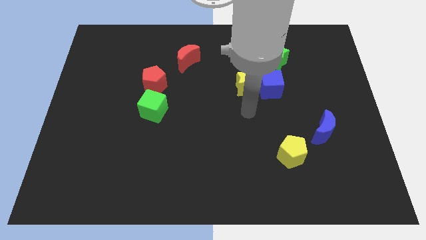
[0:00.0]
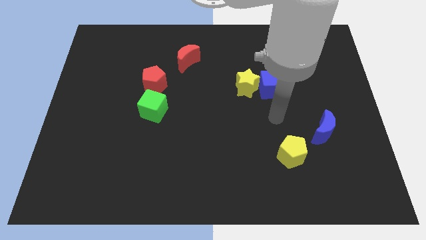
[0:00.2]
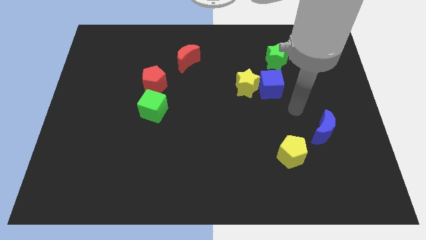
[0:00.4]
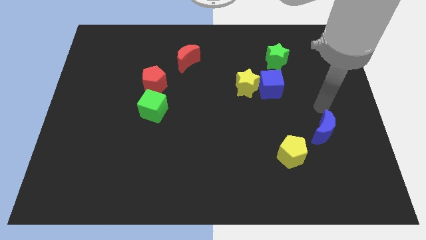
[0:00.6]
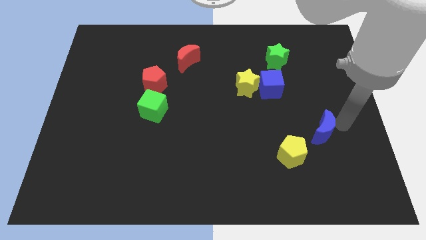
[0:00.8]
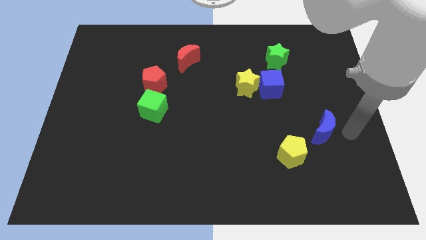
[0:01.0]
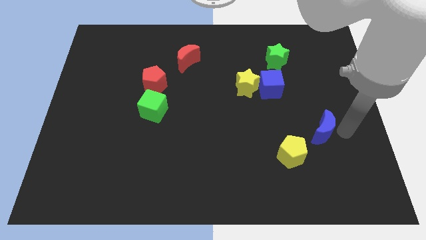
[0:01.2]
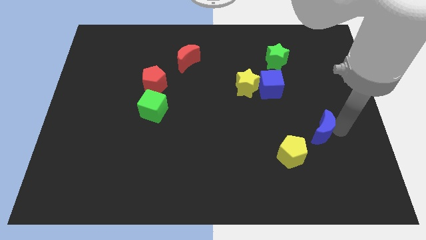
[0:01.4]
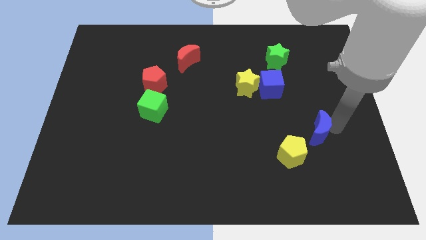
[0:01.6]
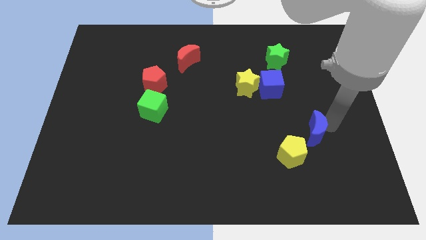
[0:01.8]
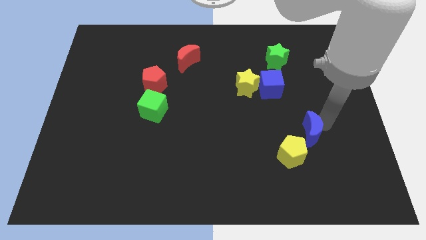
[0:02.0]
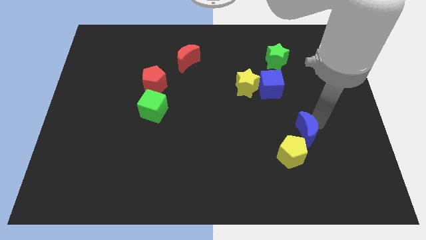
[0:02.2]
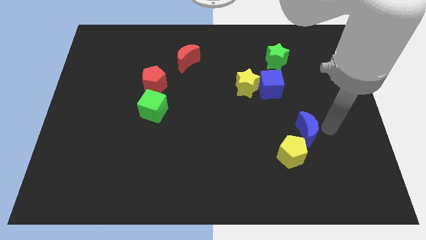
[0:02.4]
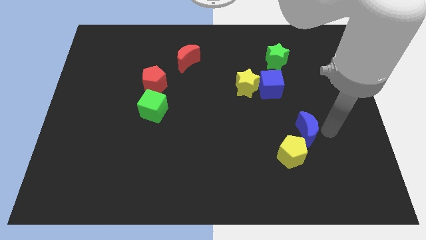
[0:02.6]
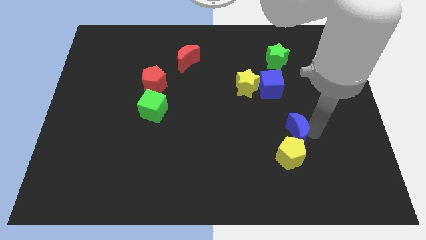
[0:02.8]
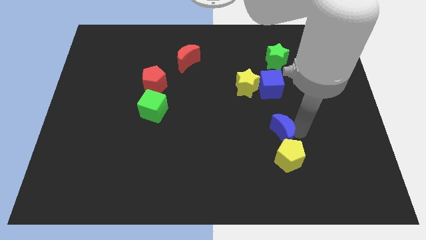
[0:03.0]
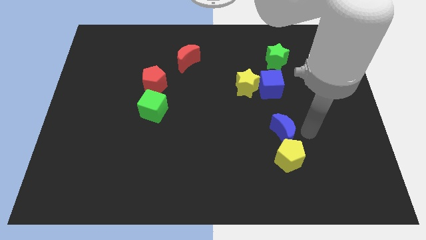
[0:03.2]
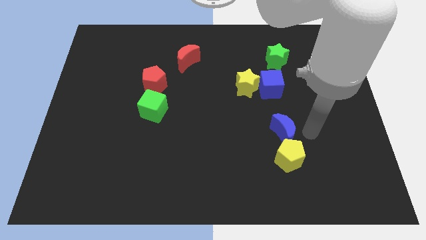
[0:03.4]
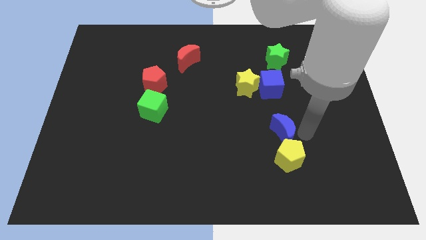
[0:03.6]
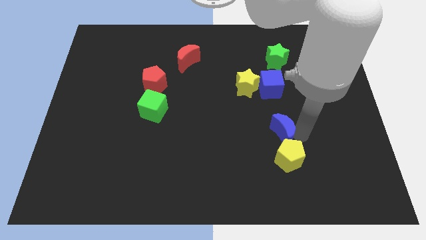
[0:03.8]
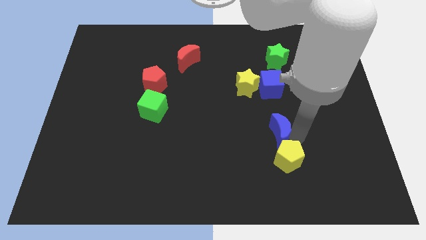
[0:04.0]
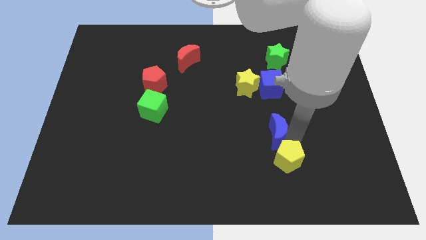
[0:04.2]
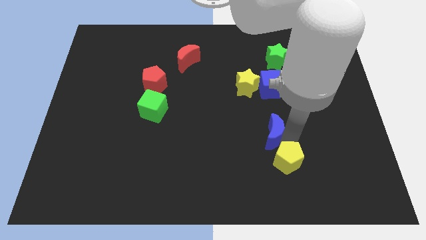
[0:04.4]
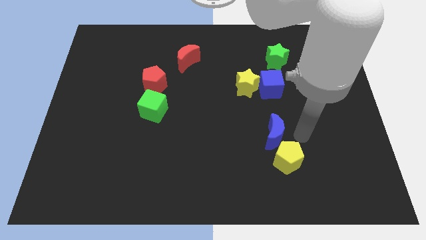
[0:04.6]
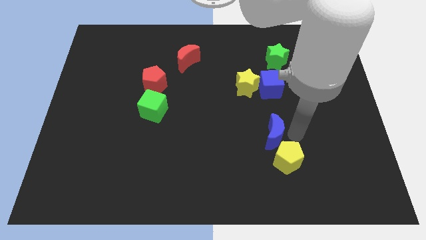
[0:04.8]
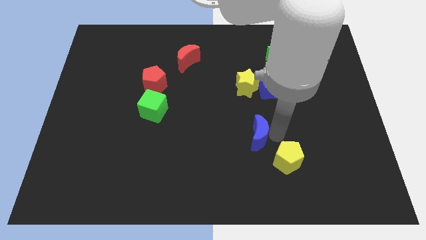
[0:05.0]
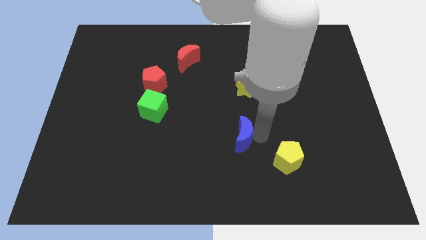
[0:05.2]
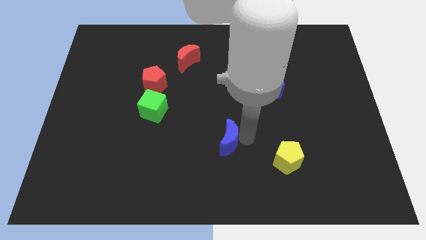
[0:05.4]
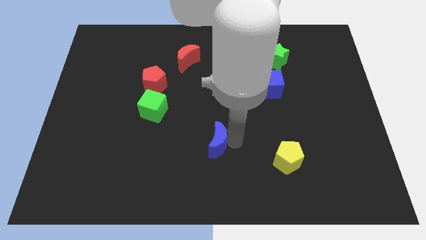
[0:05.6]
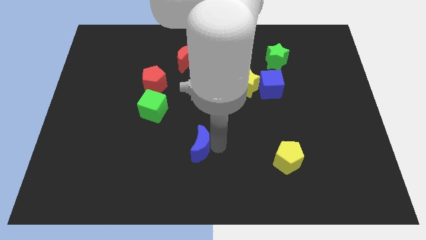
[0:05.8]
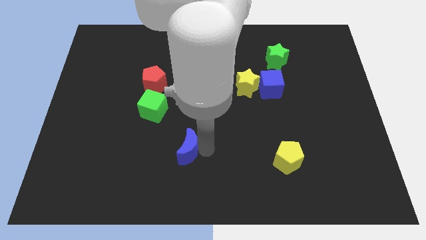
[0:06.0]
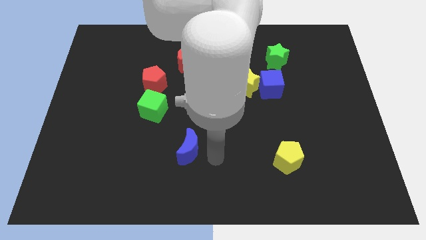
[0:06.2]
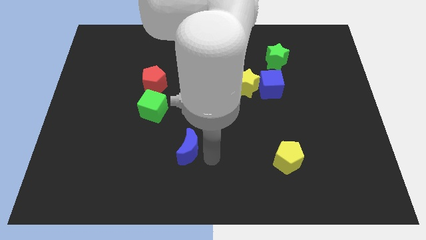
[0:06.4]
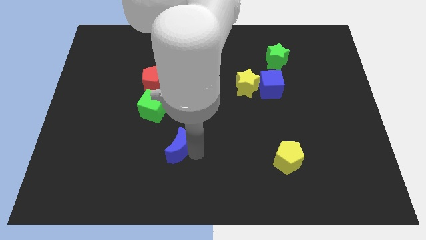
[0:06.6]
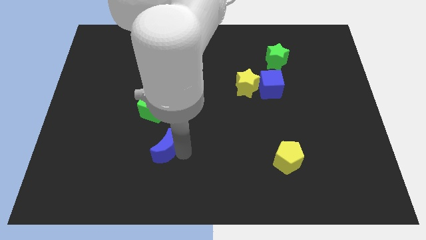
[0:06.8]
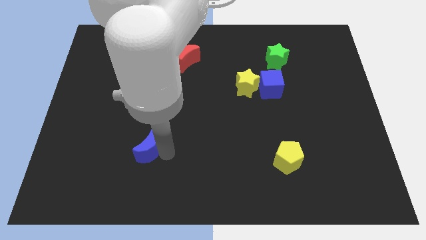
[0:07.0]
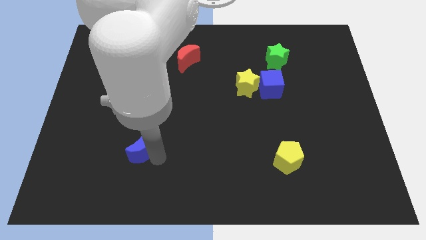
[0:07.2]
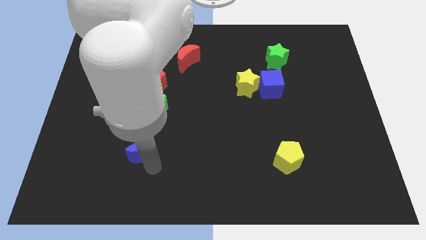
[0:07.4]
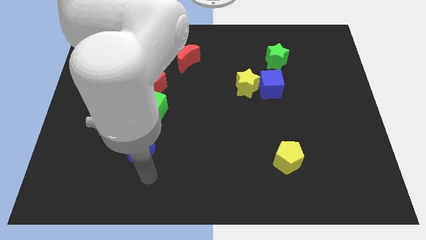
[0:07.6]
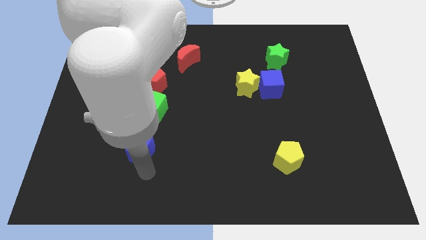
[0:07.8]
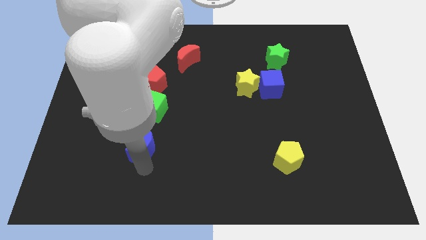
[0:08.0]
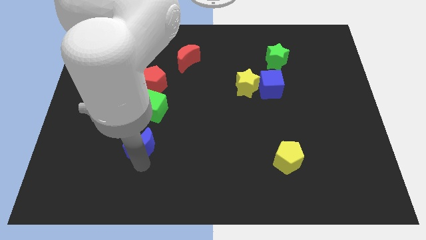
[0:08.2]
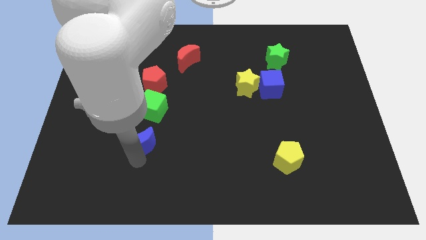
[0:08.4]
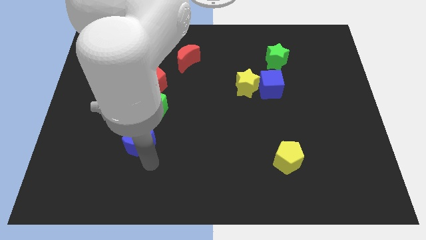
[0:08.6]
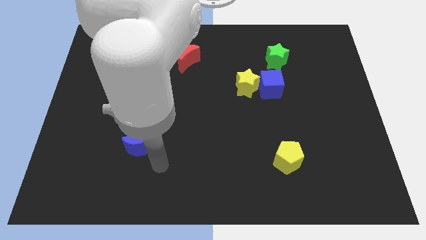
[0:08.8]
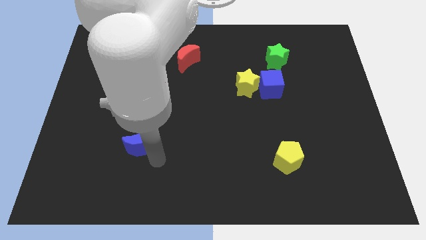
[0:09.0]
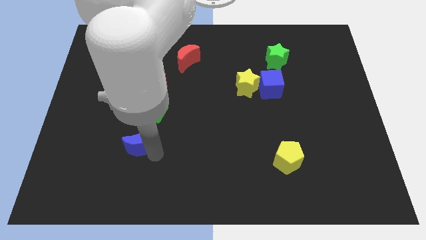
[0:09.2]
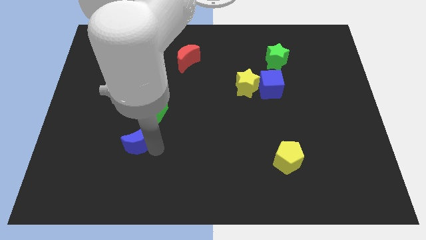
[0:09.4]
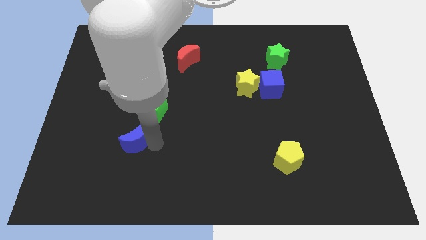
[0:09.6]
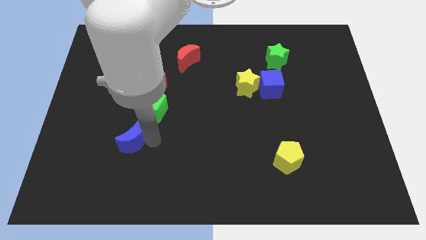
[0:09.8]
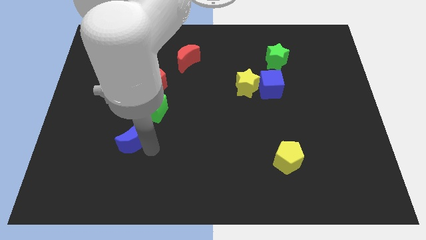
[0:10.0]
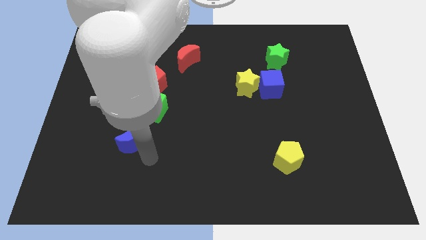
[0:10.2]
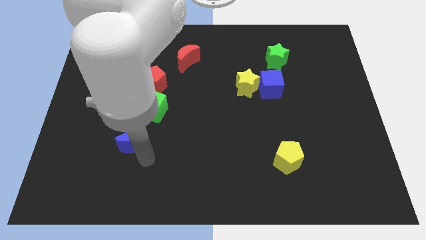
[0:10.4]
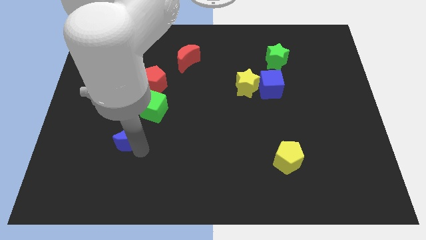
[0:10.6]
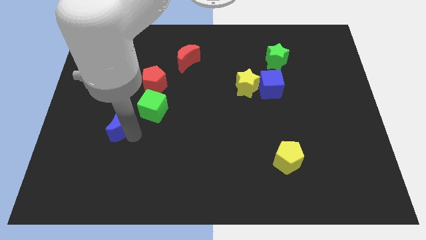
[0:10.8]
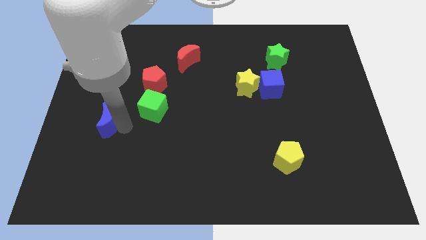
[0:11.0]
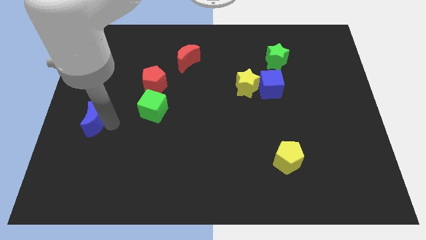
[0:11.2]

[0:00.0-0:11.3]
put the blue moon to the left side of the board
